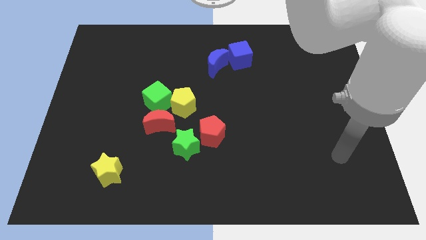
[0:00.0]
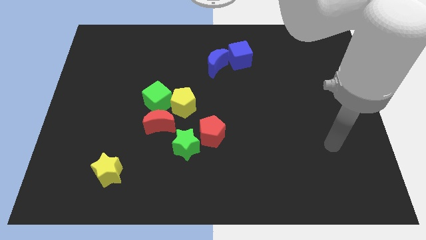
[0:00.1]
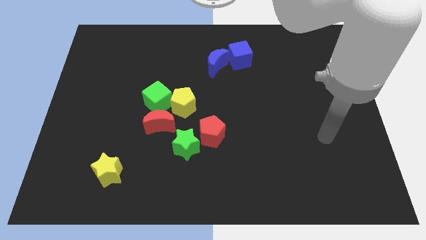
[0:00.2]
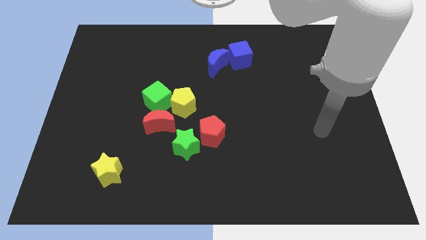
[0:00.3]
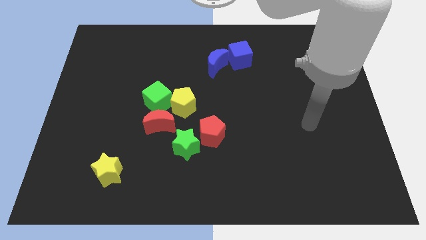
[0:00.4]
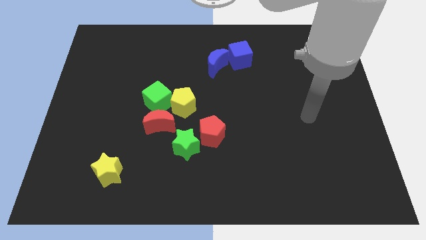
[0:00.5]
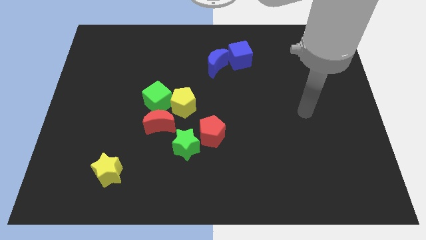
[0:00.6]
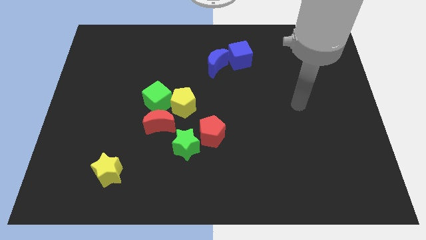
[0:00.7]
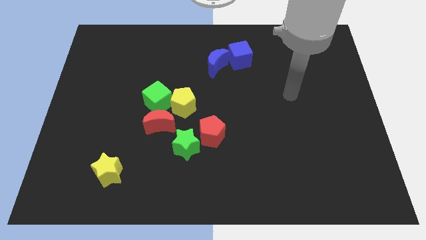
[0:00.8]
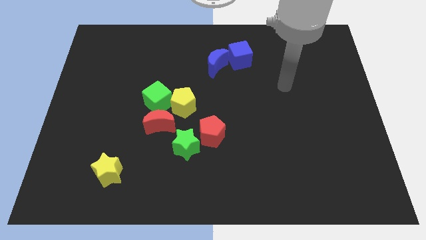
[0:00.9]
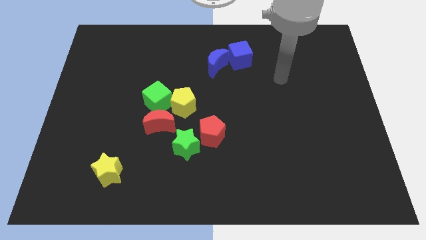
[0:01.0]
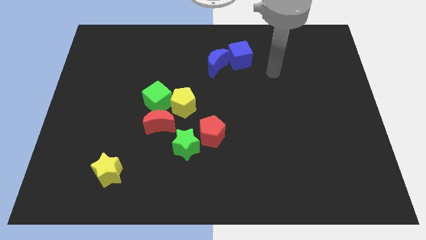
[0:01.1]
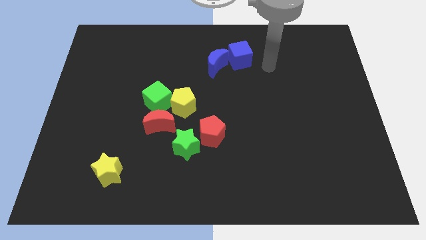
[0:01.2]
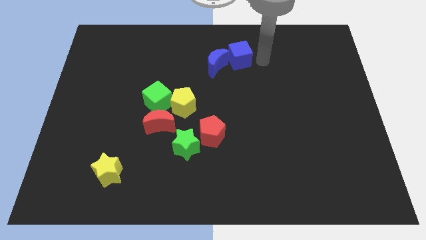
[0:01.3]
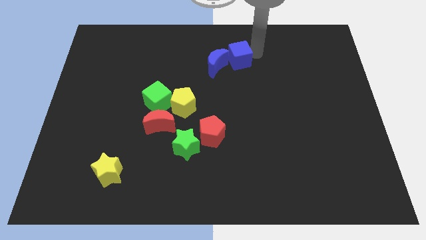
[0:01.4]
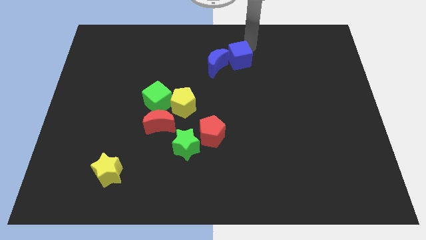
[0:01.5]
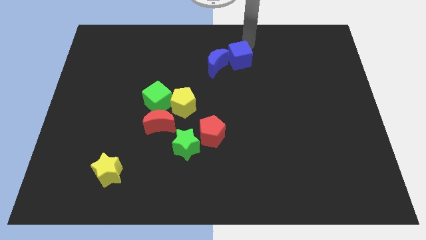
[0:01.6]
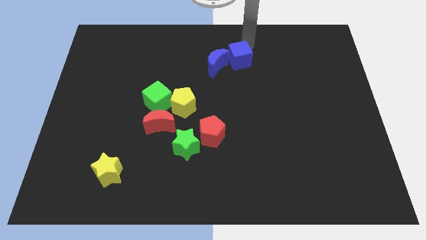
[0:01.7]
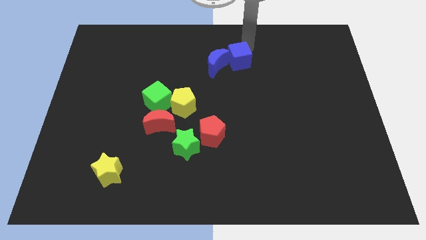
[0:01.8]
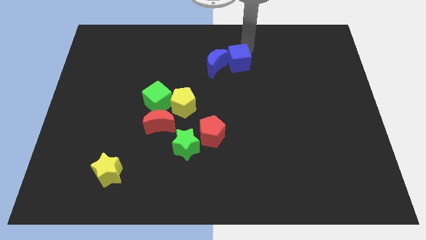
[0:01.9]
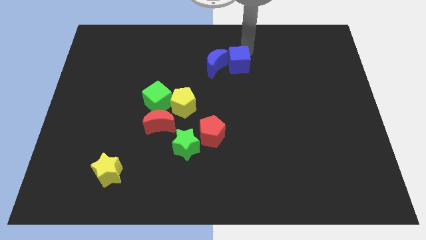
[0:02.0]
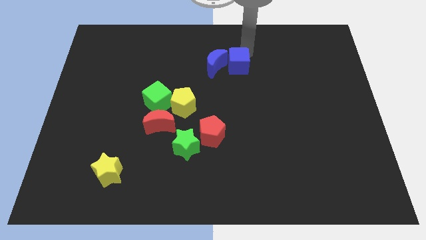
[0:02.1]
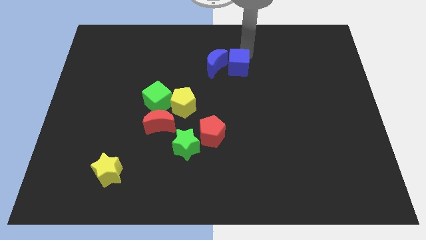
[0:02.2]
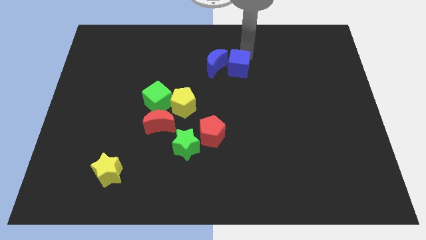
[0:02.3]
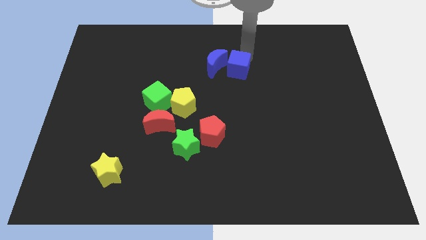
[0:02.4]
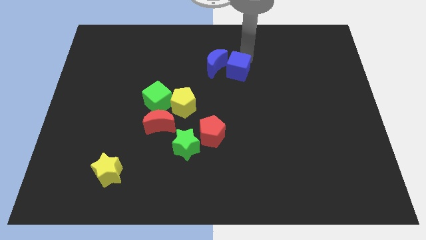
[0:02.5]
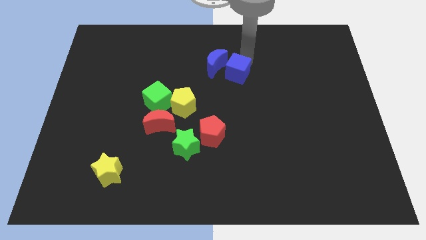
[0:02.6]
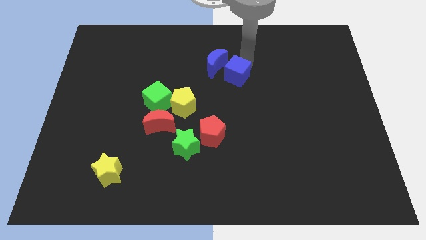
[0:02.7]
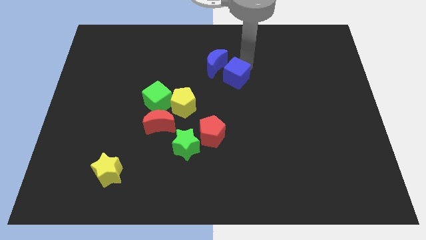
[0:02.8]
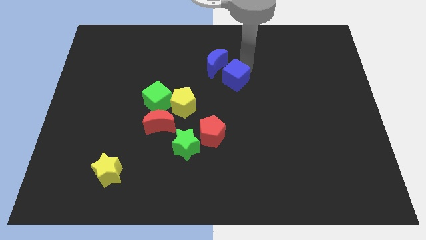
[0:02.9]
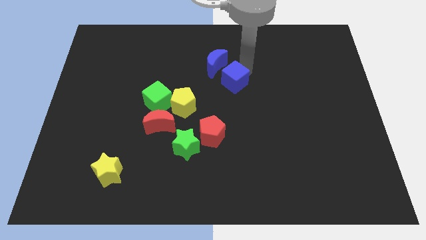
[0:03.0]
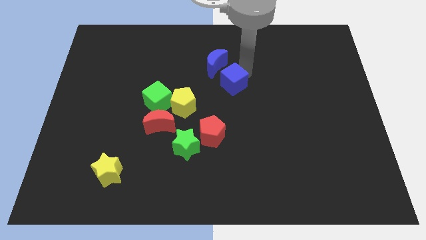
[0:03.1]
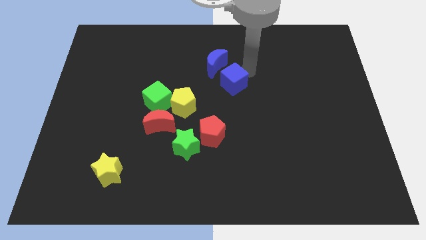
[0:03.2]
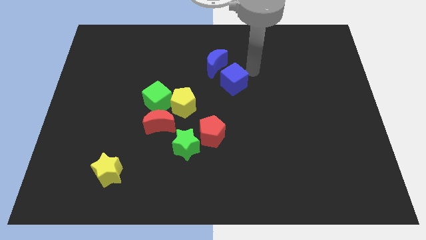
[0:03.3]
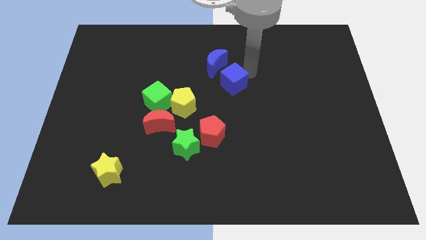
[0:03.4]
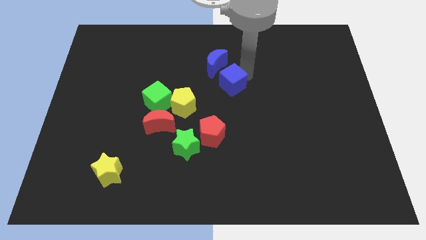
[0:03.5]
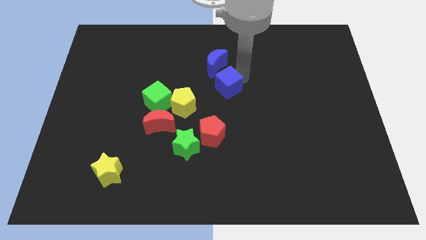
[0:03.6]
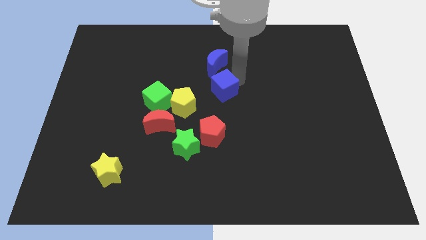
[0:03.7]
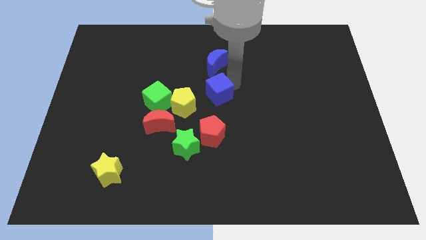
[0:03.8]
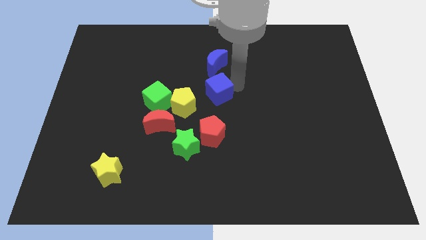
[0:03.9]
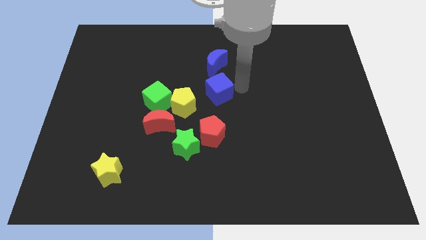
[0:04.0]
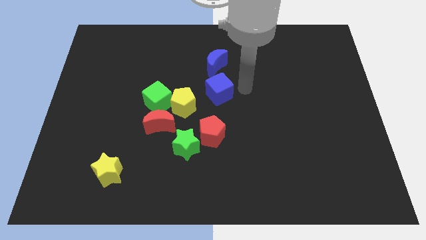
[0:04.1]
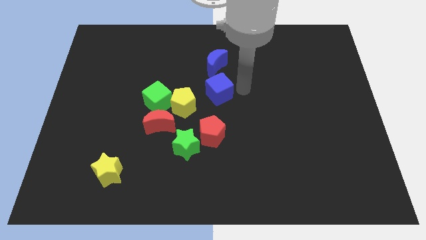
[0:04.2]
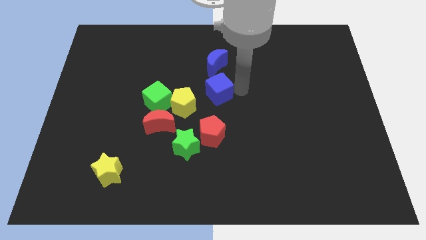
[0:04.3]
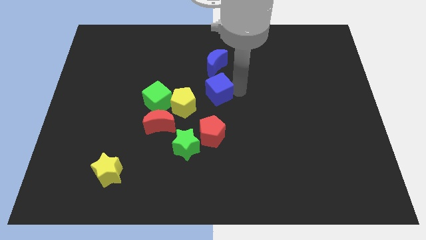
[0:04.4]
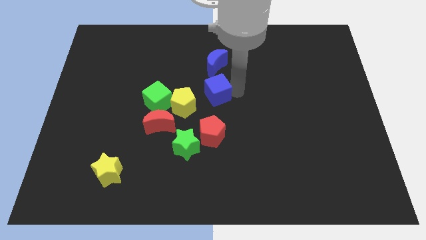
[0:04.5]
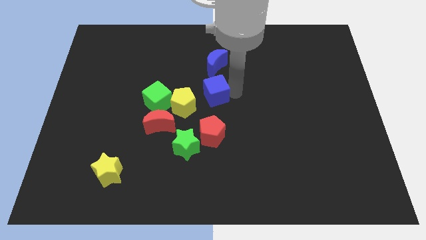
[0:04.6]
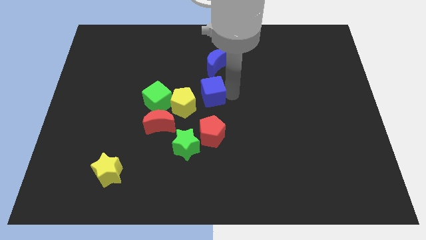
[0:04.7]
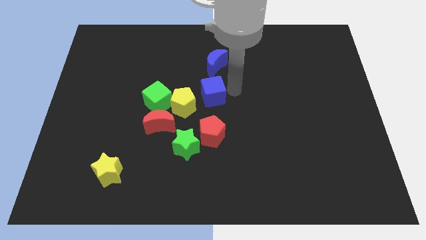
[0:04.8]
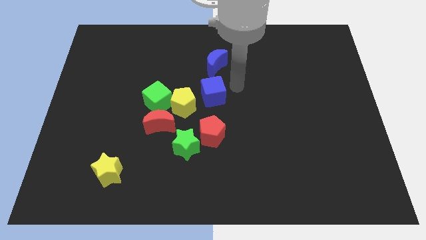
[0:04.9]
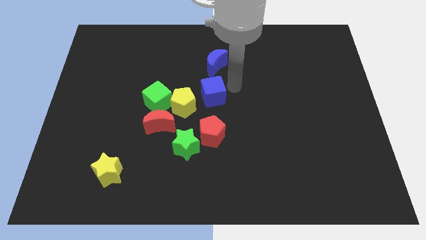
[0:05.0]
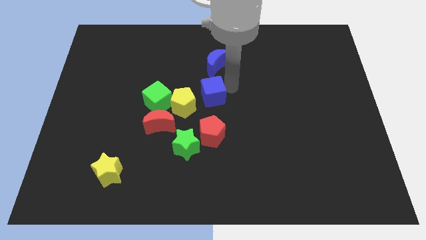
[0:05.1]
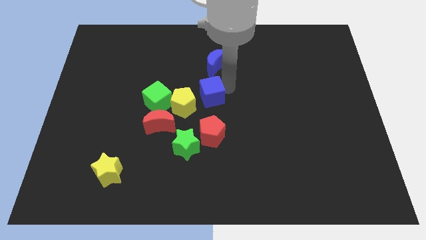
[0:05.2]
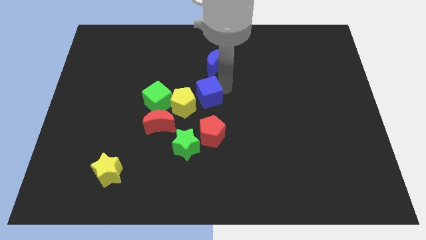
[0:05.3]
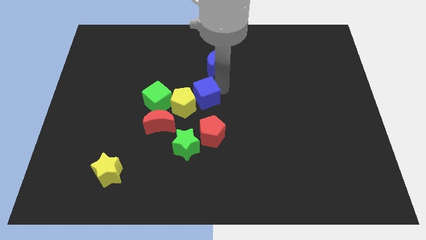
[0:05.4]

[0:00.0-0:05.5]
push the blue cube close to the yellow pentagon

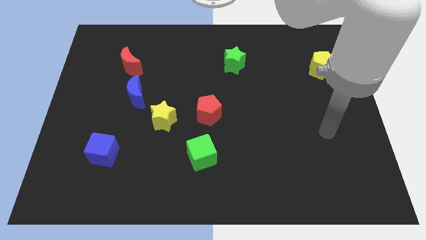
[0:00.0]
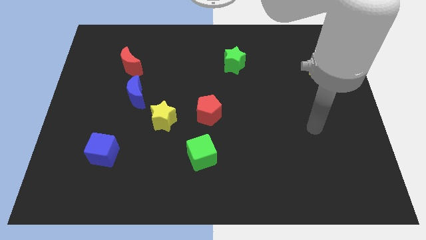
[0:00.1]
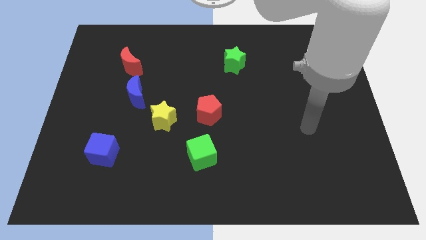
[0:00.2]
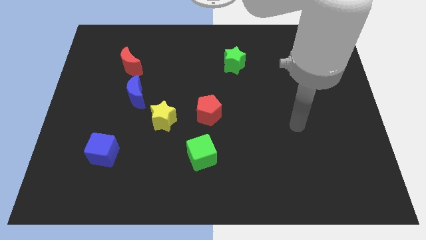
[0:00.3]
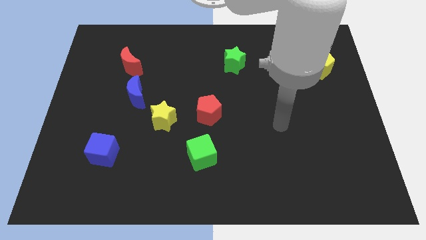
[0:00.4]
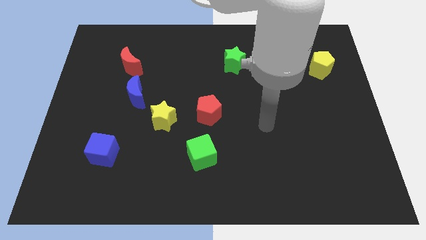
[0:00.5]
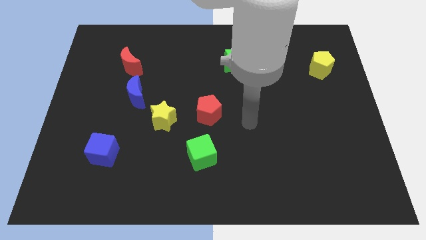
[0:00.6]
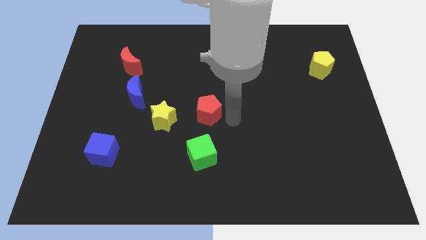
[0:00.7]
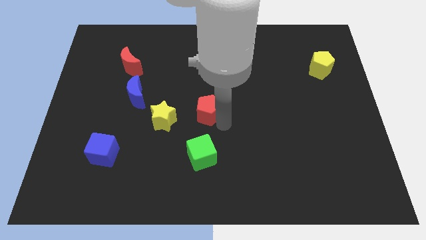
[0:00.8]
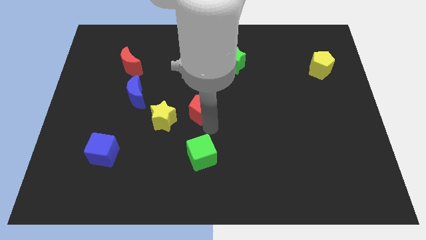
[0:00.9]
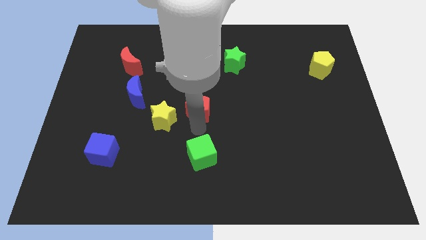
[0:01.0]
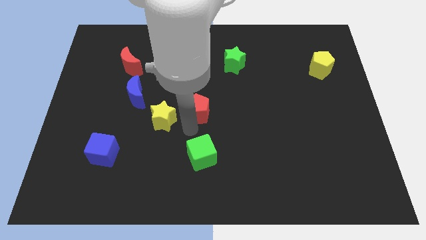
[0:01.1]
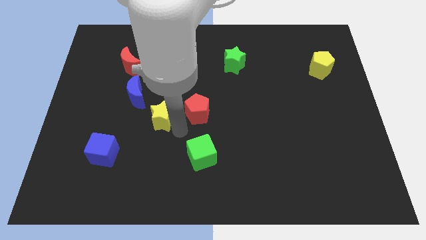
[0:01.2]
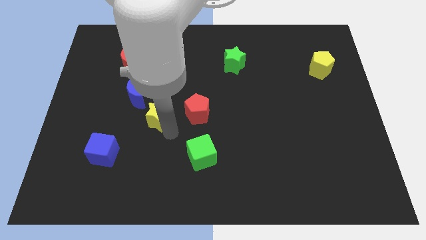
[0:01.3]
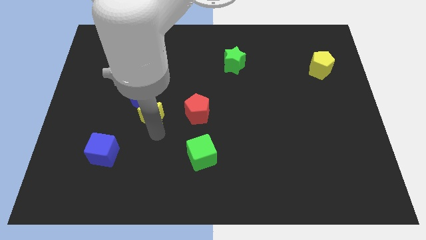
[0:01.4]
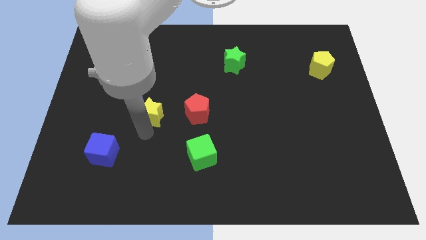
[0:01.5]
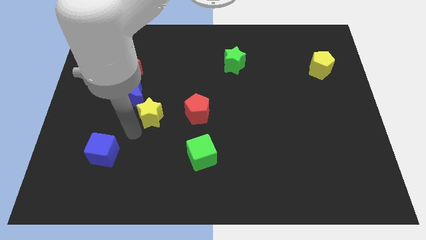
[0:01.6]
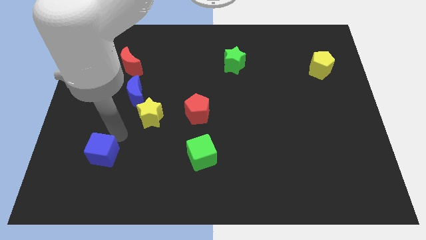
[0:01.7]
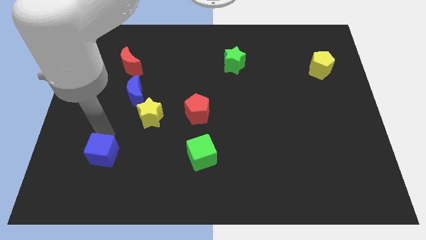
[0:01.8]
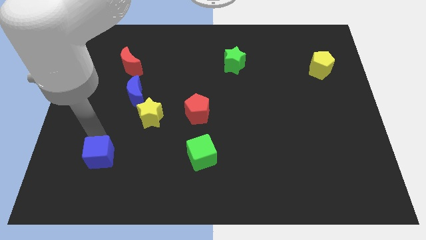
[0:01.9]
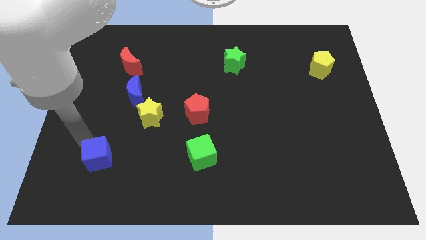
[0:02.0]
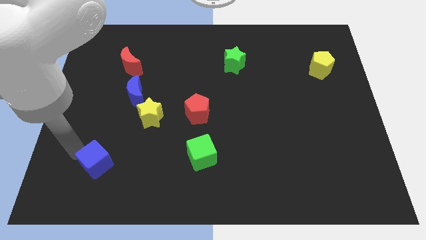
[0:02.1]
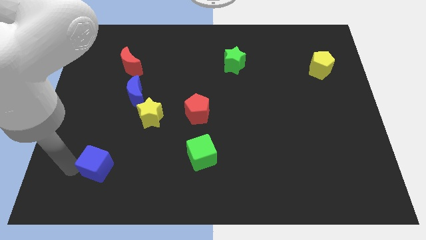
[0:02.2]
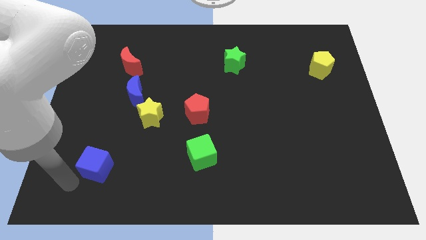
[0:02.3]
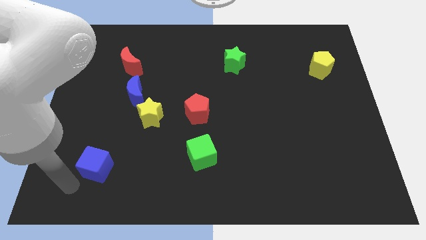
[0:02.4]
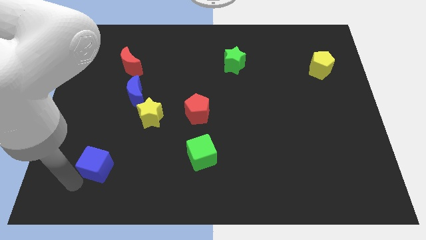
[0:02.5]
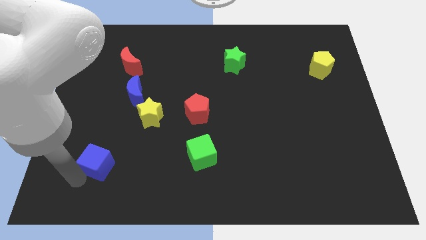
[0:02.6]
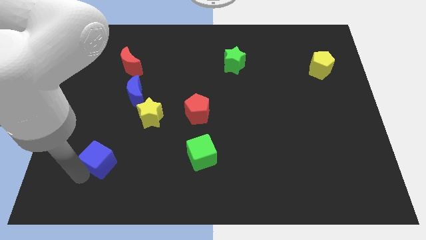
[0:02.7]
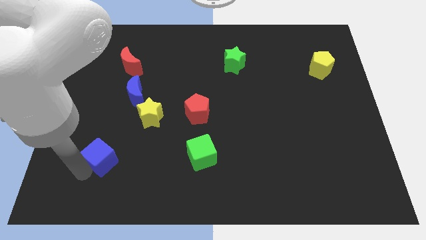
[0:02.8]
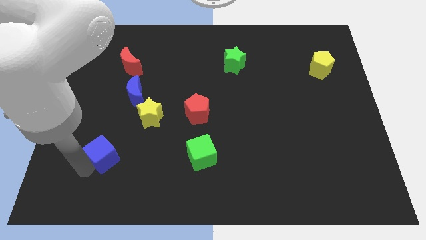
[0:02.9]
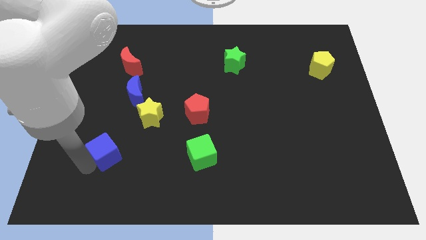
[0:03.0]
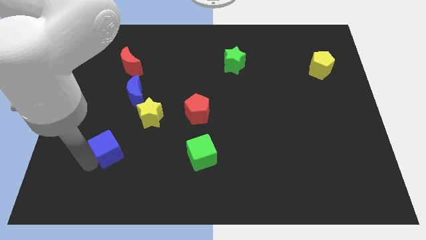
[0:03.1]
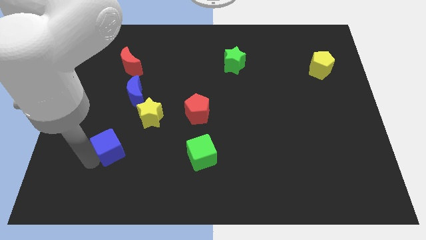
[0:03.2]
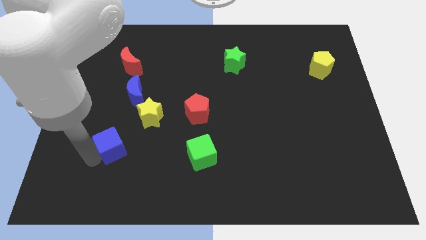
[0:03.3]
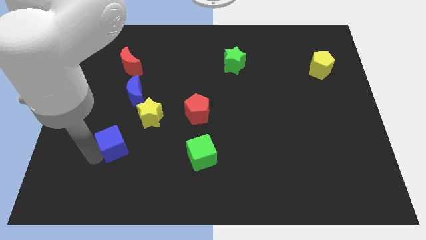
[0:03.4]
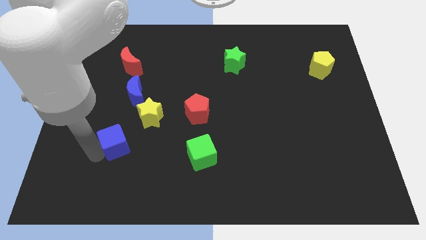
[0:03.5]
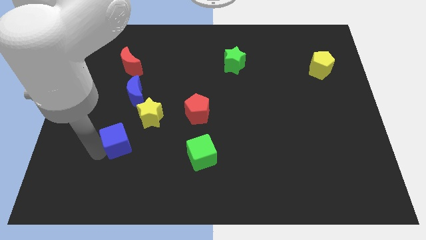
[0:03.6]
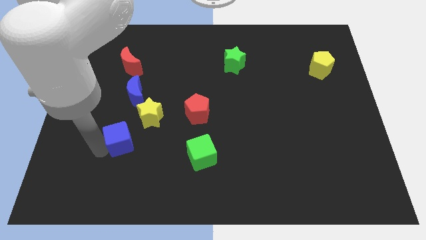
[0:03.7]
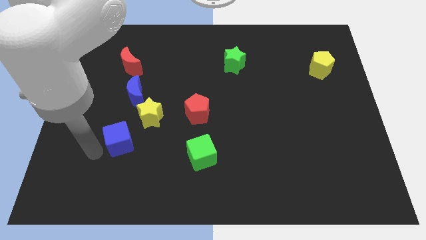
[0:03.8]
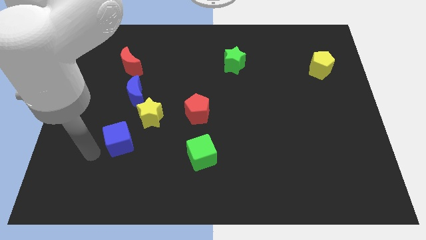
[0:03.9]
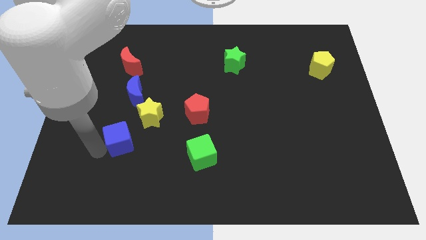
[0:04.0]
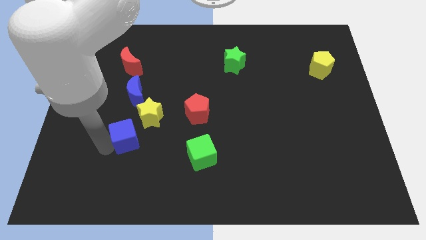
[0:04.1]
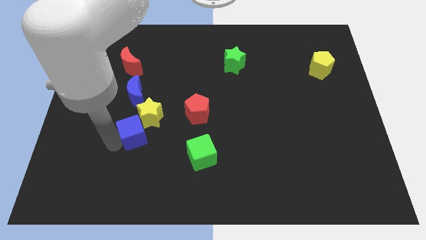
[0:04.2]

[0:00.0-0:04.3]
slide the blue cube to the yellow star
